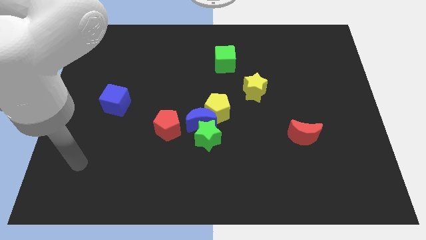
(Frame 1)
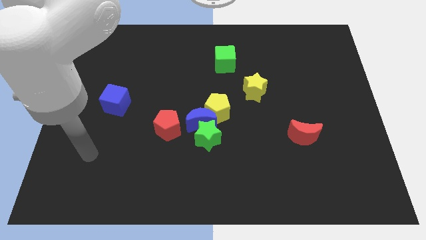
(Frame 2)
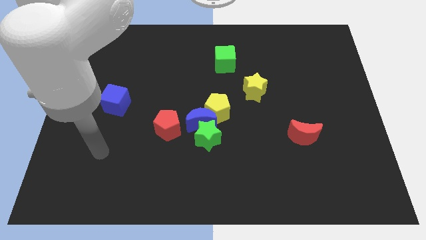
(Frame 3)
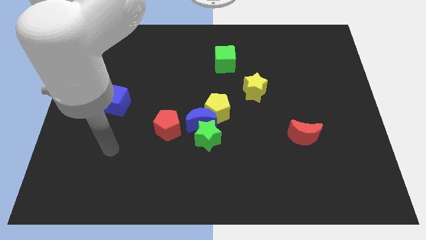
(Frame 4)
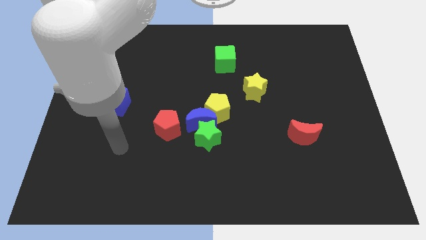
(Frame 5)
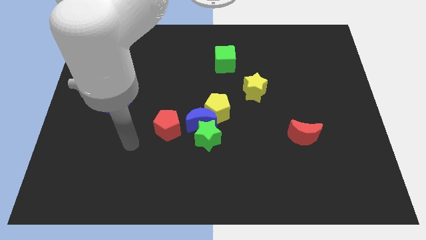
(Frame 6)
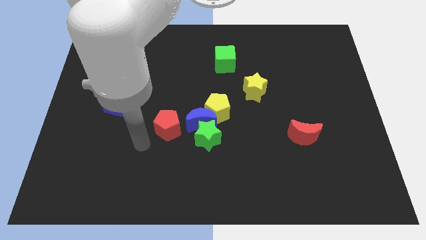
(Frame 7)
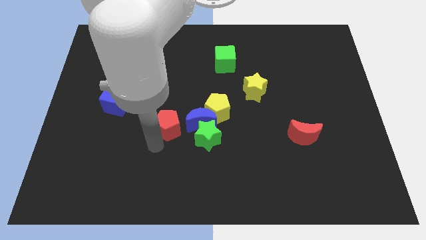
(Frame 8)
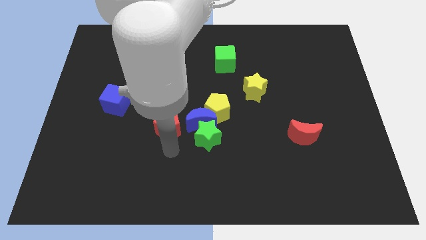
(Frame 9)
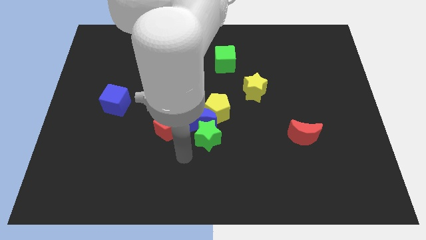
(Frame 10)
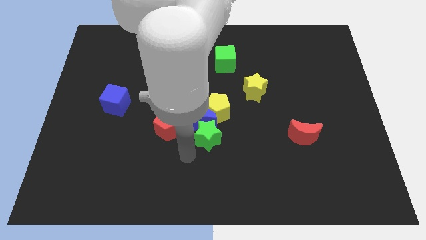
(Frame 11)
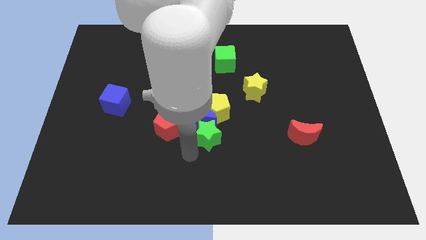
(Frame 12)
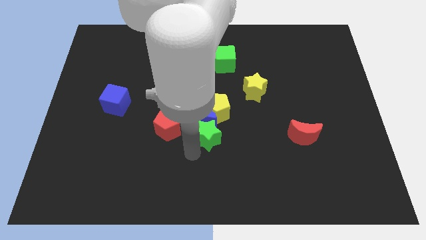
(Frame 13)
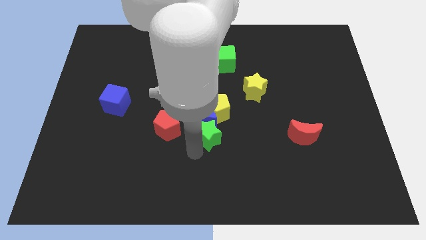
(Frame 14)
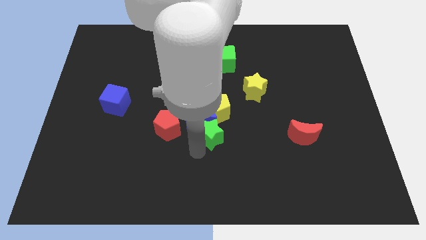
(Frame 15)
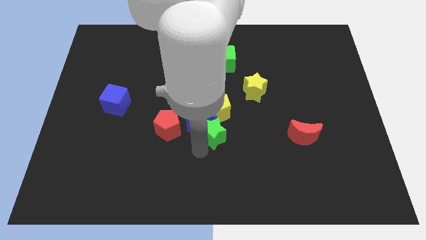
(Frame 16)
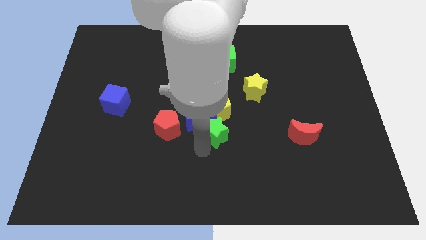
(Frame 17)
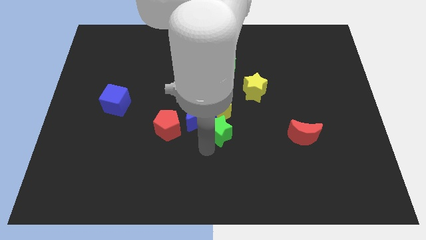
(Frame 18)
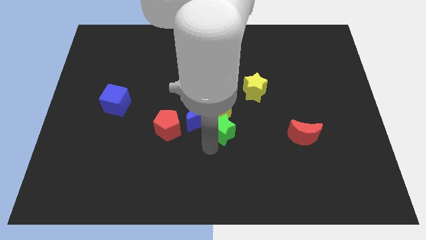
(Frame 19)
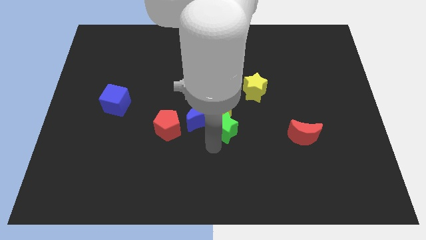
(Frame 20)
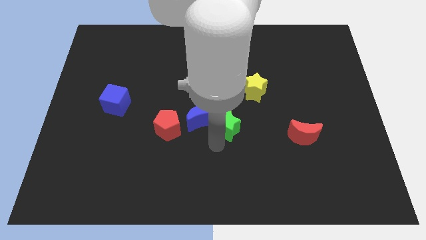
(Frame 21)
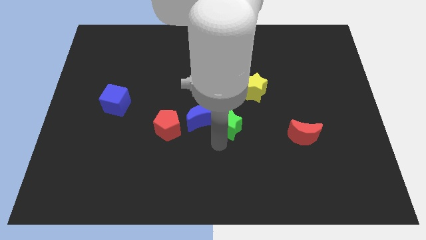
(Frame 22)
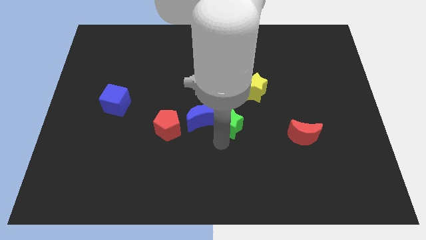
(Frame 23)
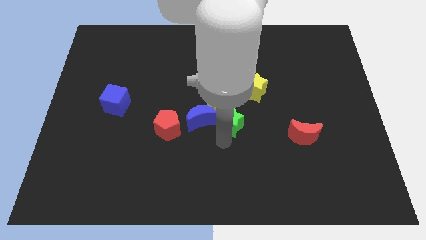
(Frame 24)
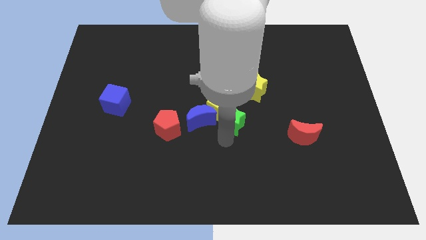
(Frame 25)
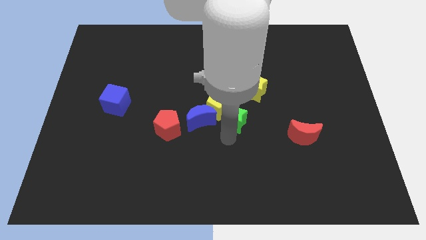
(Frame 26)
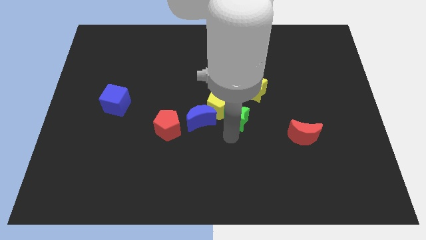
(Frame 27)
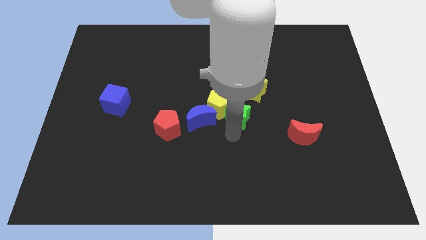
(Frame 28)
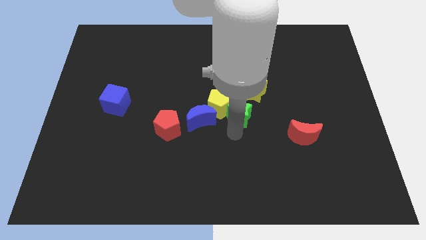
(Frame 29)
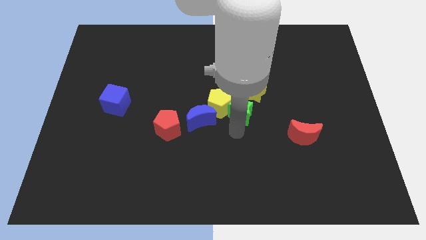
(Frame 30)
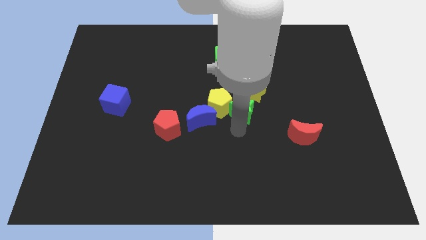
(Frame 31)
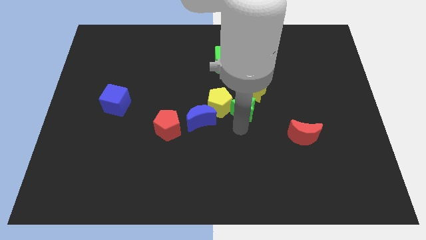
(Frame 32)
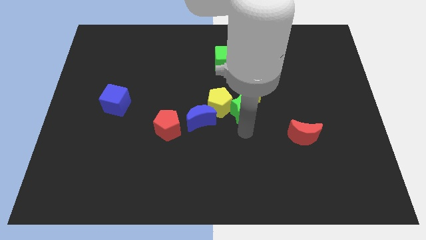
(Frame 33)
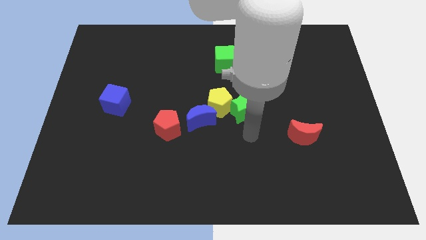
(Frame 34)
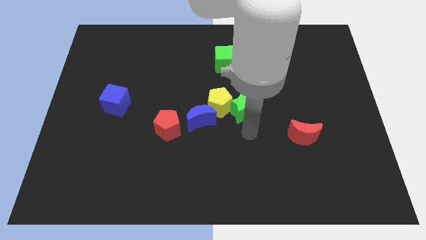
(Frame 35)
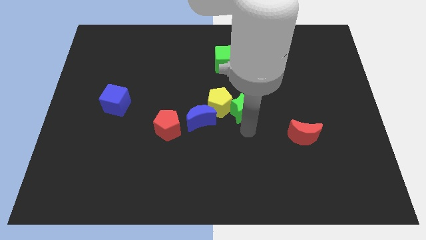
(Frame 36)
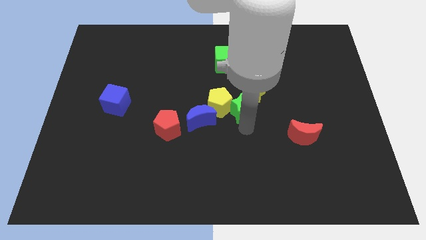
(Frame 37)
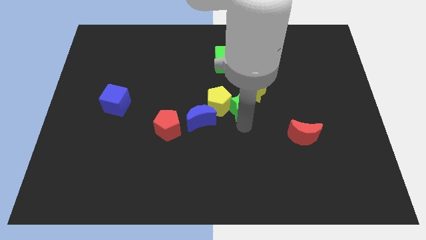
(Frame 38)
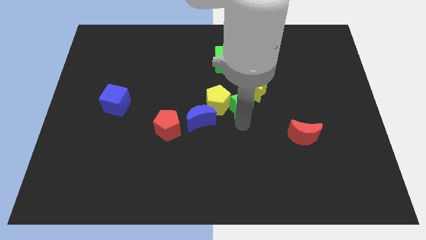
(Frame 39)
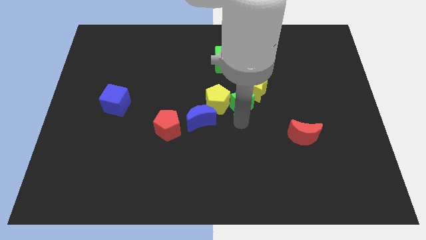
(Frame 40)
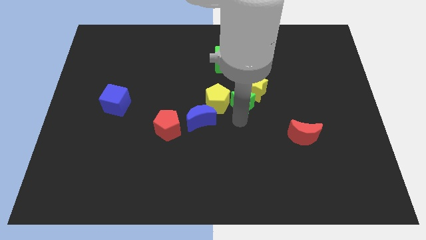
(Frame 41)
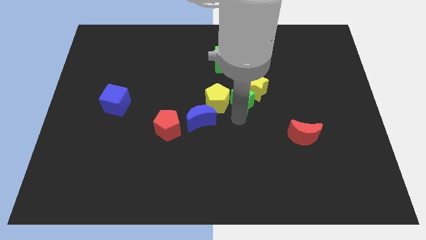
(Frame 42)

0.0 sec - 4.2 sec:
slightly move the green star up

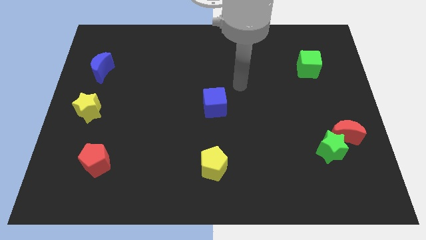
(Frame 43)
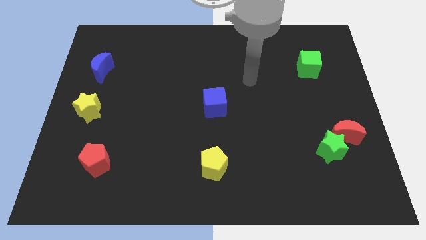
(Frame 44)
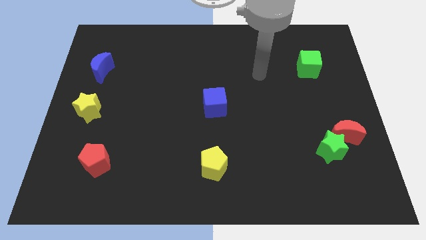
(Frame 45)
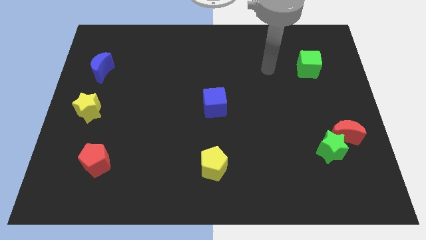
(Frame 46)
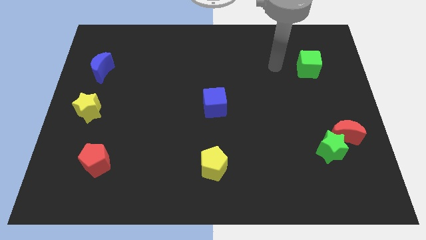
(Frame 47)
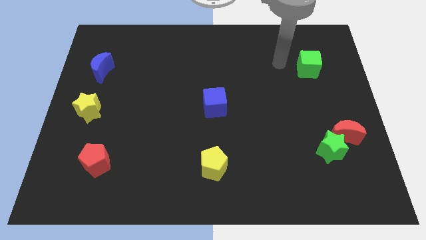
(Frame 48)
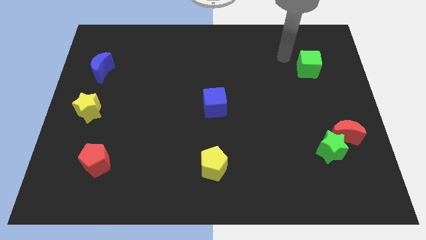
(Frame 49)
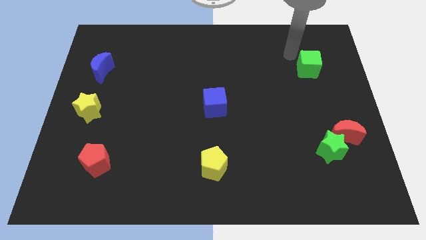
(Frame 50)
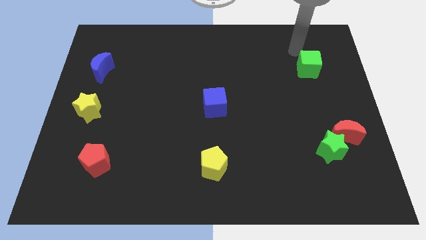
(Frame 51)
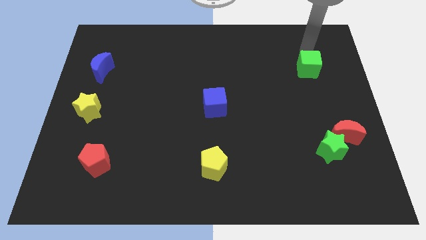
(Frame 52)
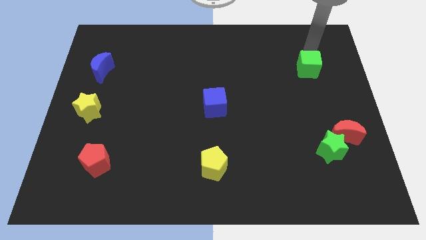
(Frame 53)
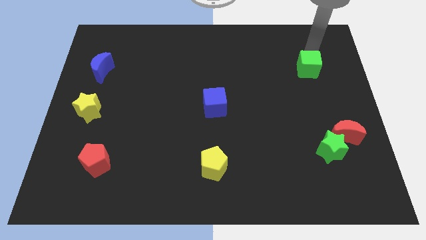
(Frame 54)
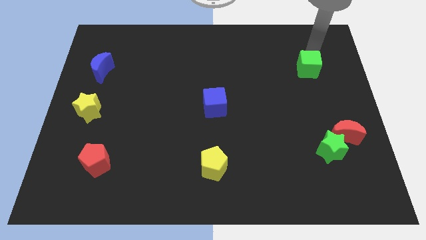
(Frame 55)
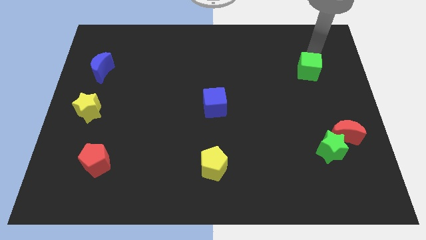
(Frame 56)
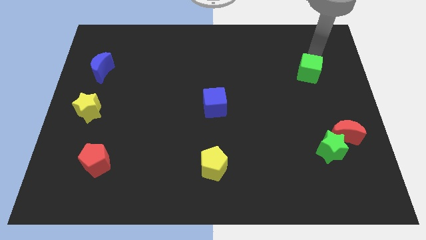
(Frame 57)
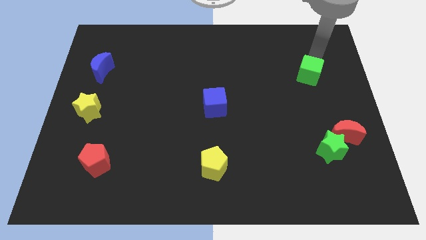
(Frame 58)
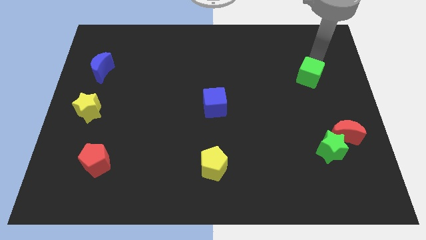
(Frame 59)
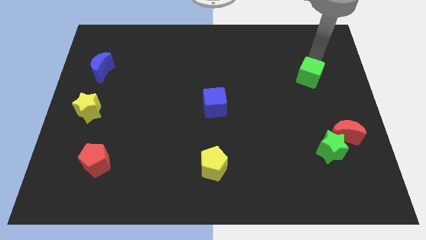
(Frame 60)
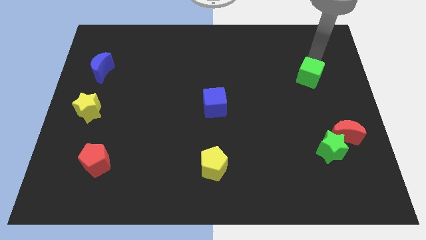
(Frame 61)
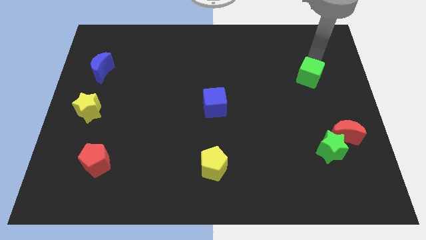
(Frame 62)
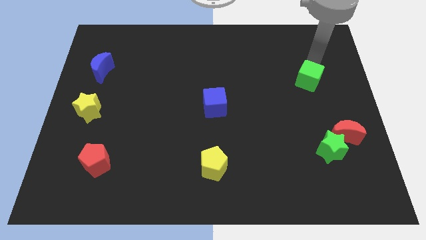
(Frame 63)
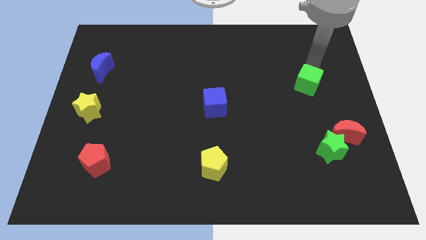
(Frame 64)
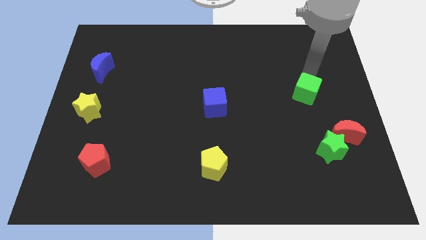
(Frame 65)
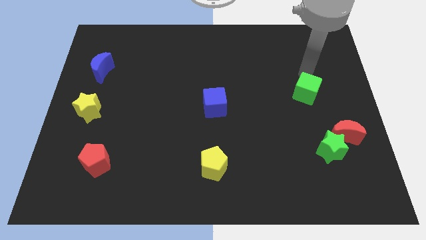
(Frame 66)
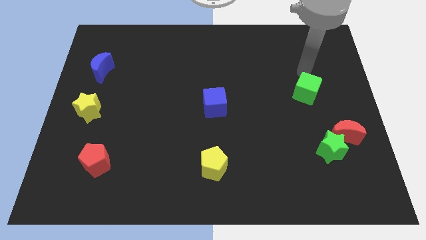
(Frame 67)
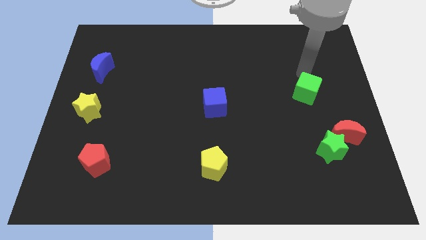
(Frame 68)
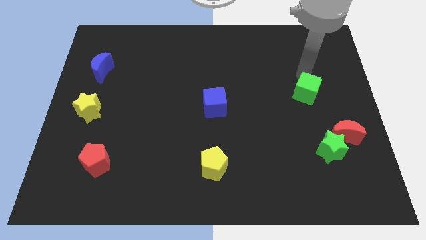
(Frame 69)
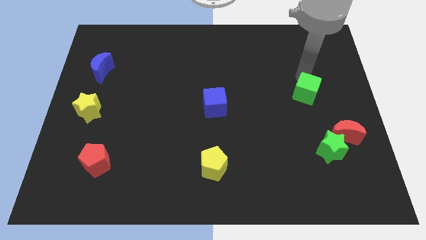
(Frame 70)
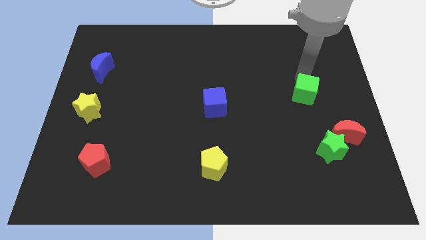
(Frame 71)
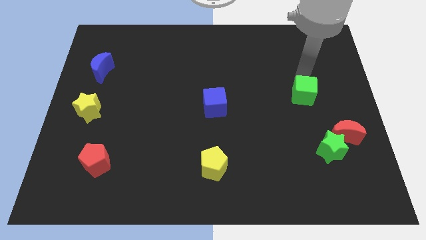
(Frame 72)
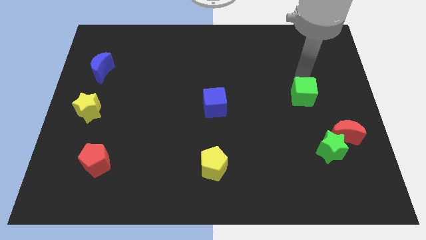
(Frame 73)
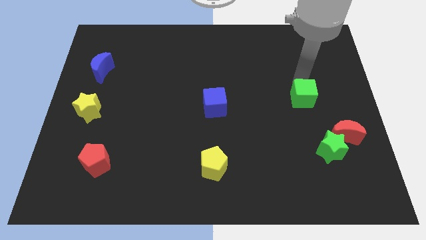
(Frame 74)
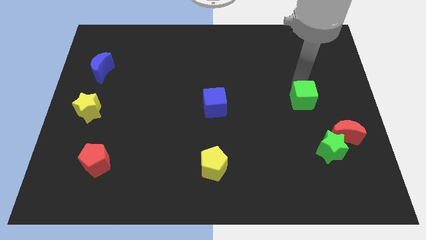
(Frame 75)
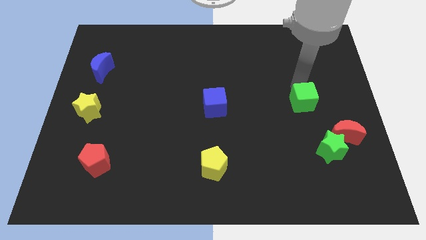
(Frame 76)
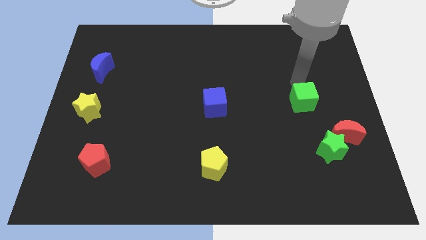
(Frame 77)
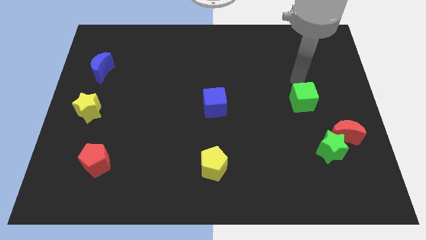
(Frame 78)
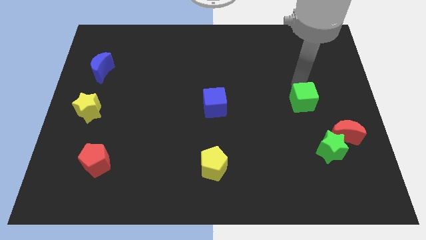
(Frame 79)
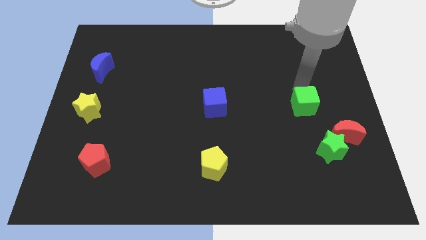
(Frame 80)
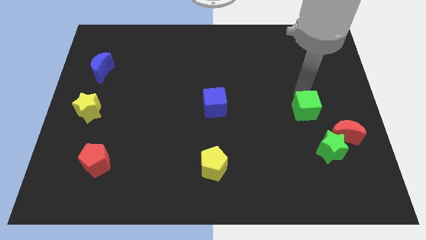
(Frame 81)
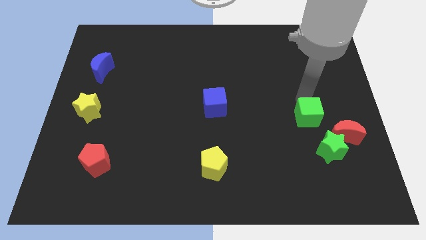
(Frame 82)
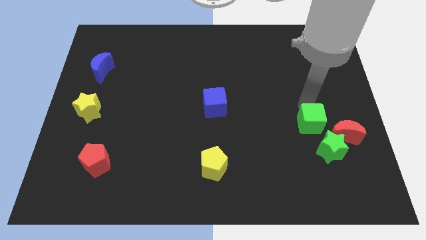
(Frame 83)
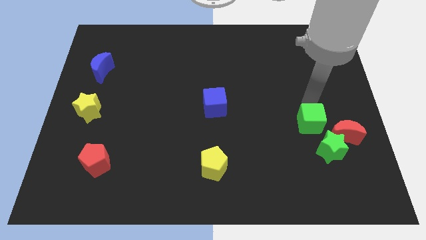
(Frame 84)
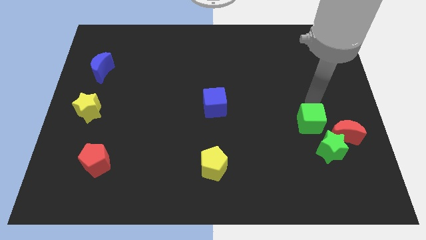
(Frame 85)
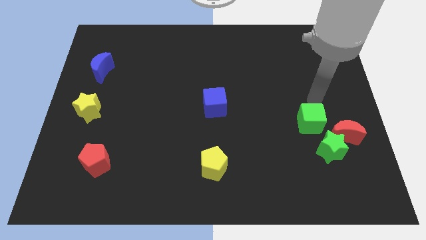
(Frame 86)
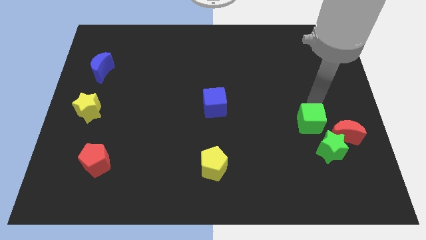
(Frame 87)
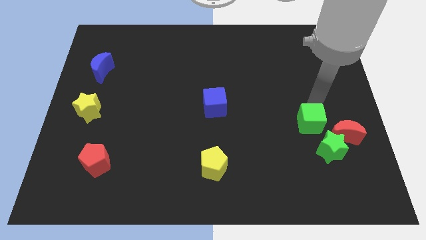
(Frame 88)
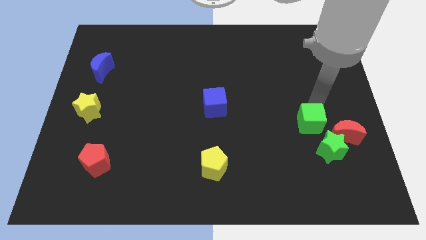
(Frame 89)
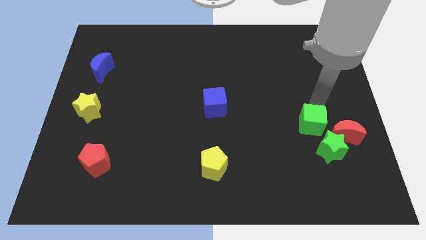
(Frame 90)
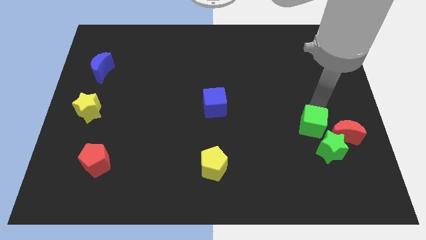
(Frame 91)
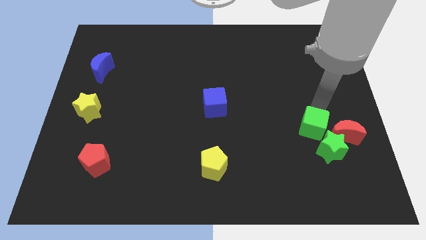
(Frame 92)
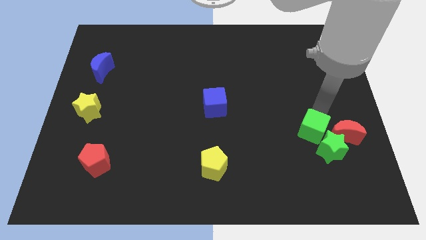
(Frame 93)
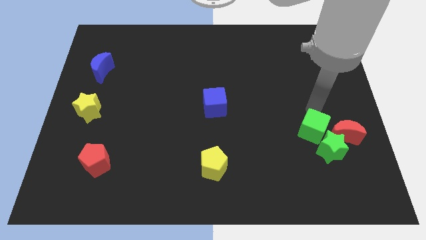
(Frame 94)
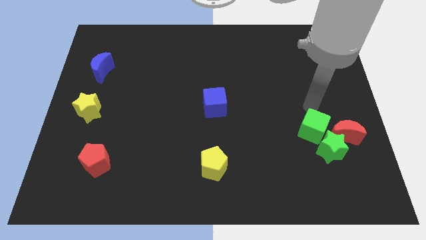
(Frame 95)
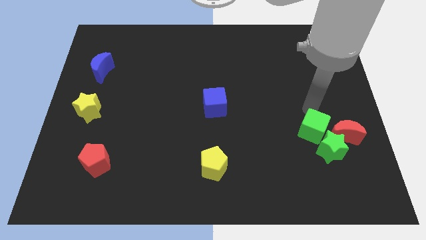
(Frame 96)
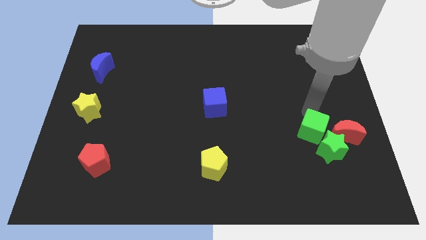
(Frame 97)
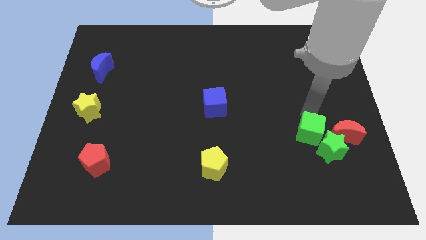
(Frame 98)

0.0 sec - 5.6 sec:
move the green cube down
